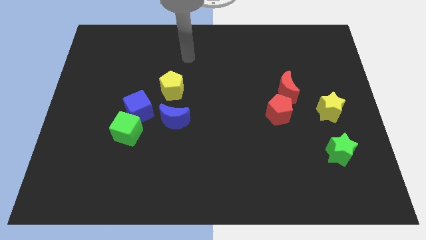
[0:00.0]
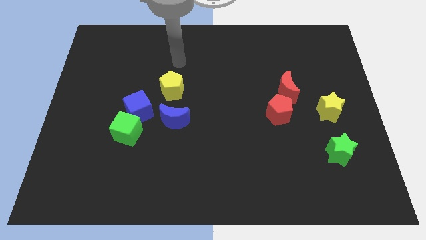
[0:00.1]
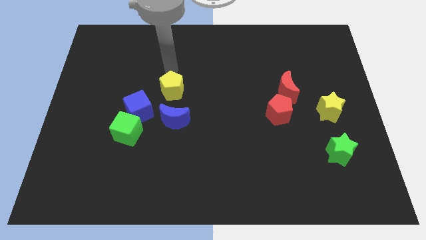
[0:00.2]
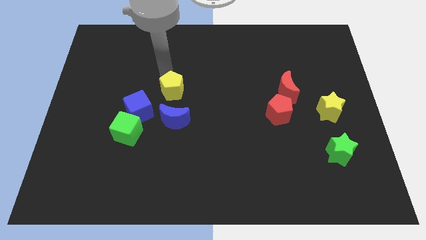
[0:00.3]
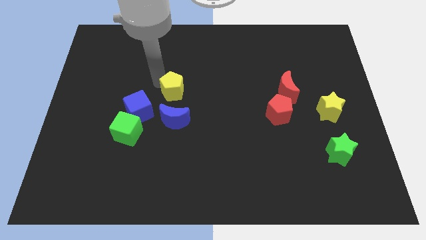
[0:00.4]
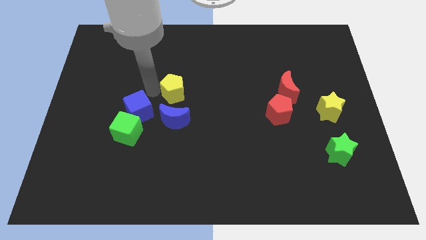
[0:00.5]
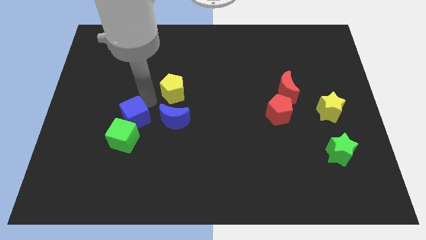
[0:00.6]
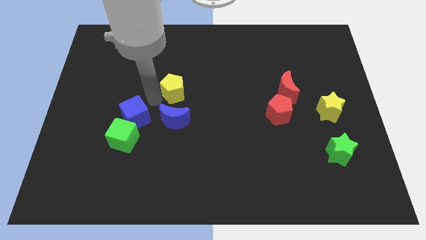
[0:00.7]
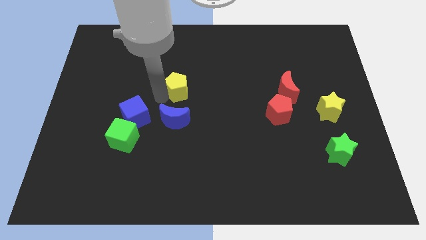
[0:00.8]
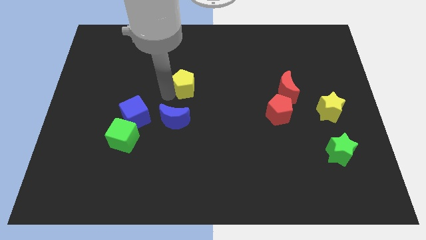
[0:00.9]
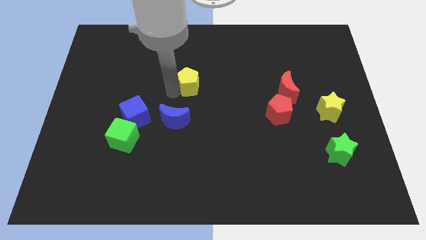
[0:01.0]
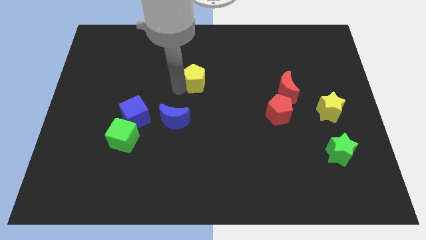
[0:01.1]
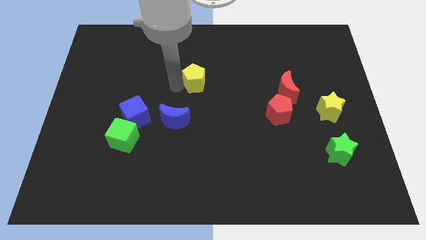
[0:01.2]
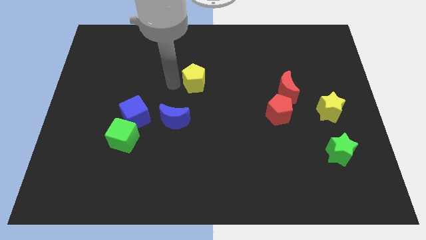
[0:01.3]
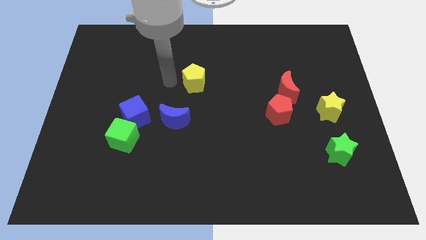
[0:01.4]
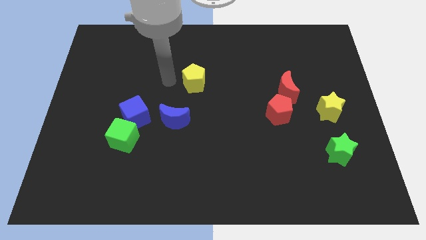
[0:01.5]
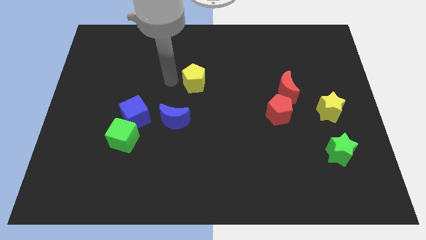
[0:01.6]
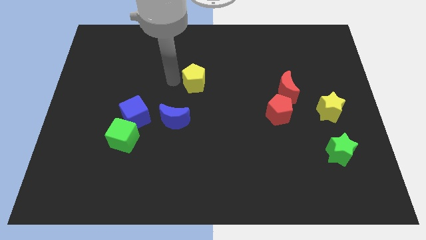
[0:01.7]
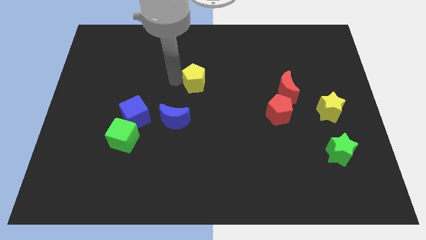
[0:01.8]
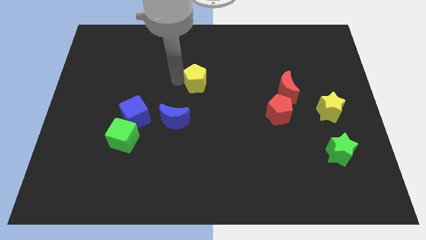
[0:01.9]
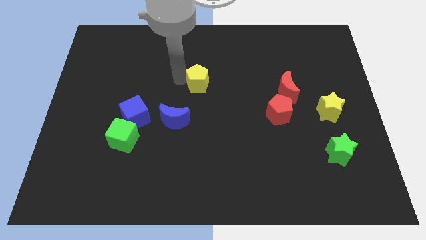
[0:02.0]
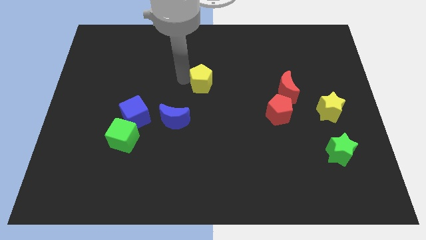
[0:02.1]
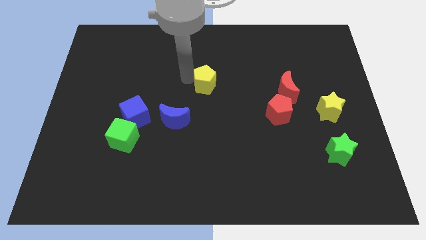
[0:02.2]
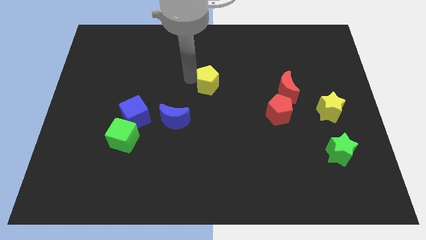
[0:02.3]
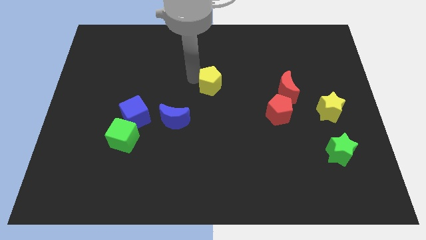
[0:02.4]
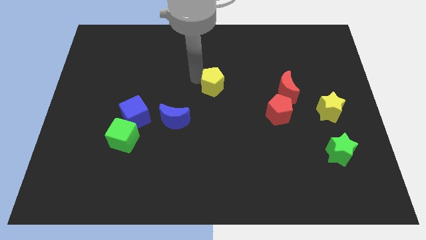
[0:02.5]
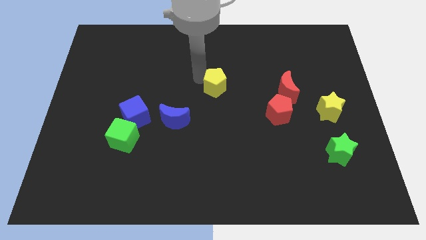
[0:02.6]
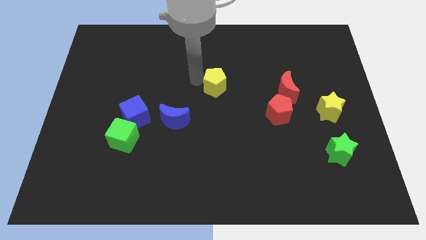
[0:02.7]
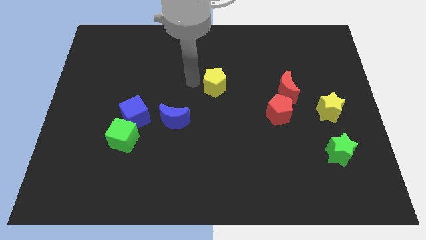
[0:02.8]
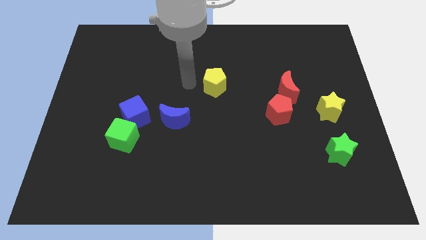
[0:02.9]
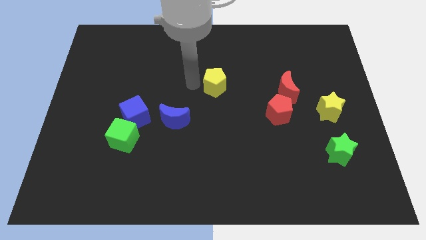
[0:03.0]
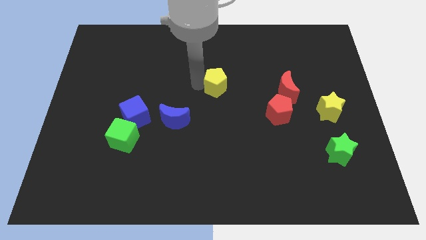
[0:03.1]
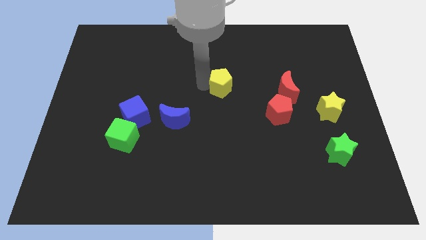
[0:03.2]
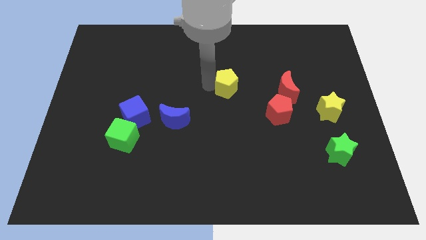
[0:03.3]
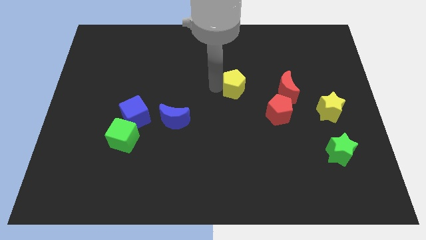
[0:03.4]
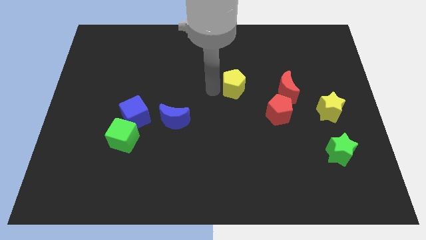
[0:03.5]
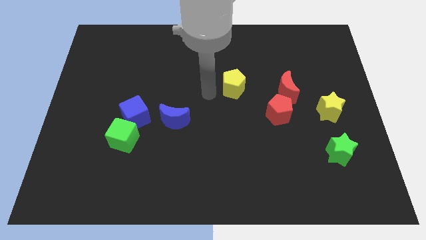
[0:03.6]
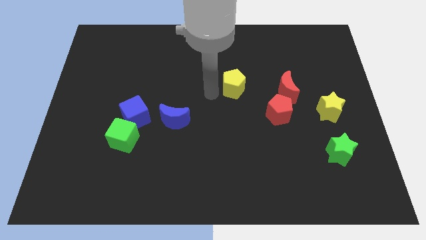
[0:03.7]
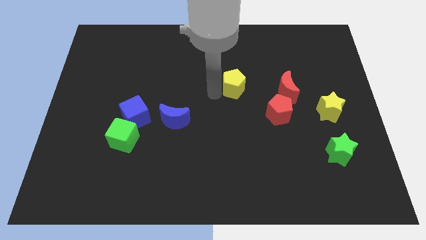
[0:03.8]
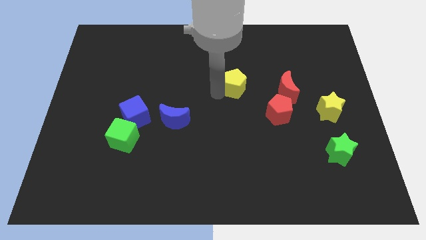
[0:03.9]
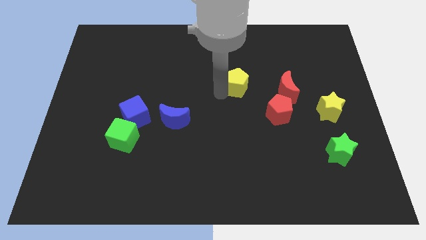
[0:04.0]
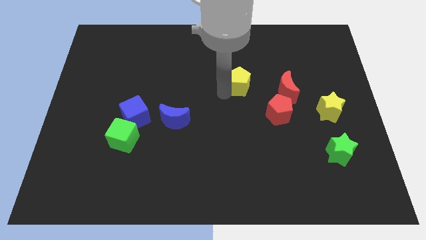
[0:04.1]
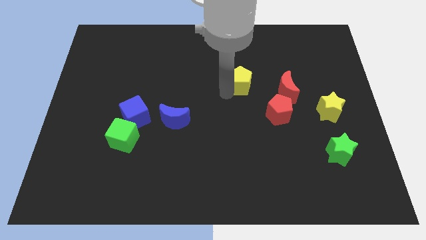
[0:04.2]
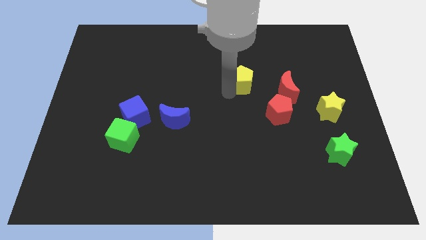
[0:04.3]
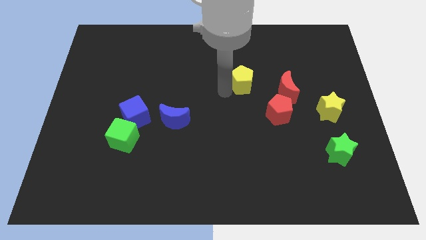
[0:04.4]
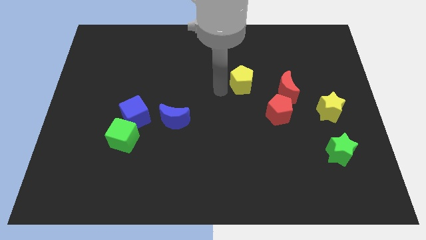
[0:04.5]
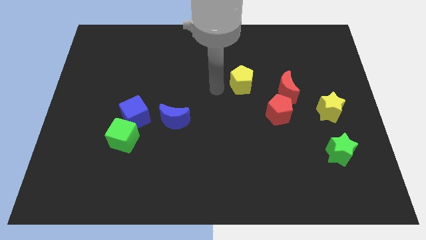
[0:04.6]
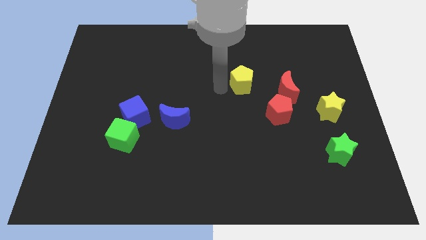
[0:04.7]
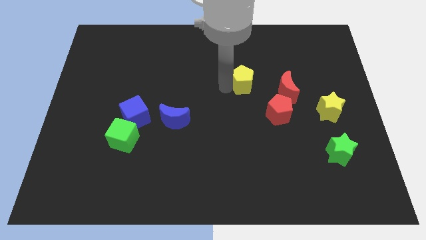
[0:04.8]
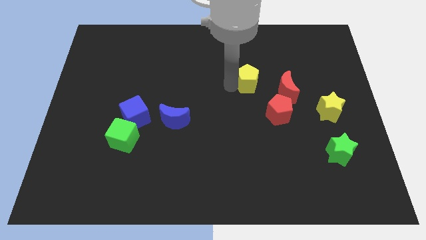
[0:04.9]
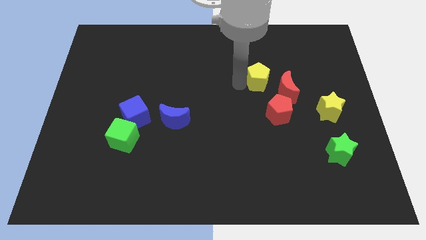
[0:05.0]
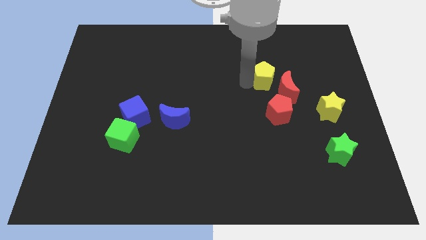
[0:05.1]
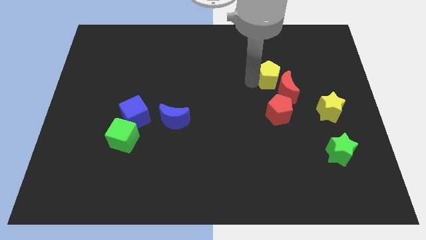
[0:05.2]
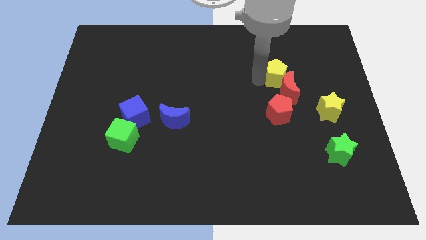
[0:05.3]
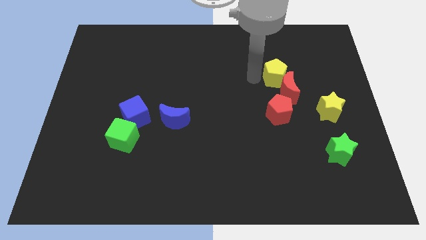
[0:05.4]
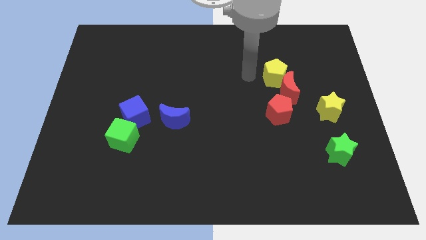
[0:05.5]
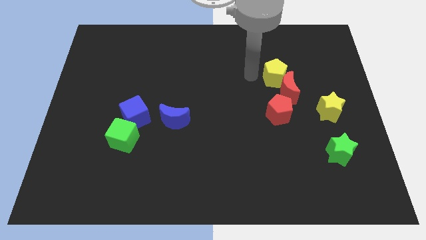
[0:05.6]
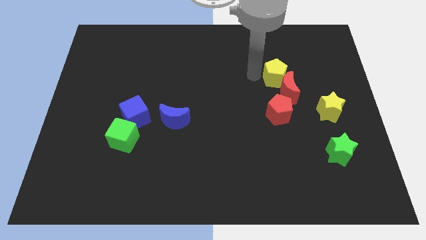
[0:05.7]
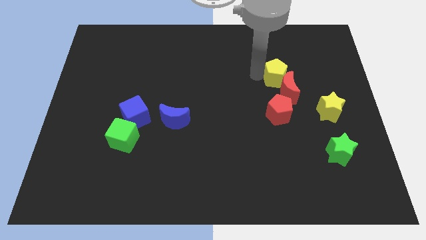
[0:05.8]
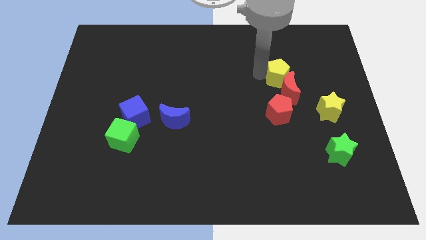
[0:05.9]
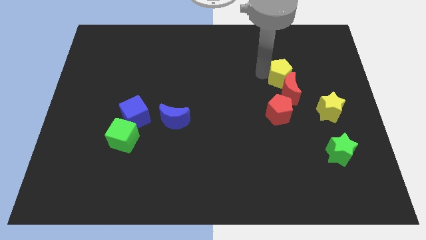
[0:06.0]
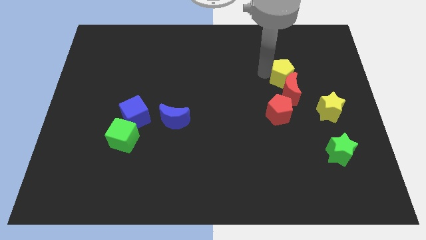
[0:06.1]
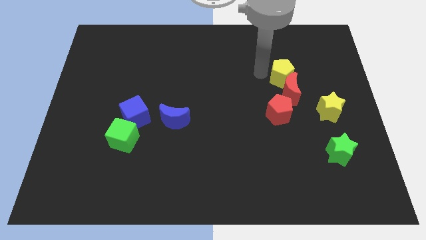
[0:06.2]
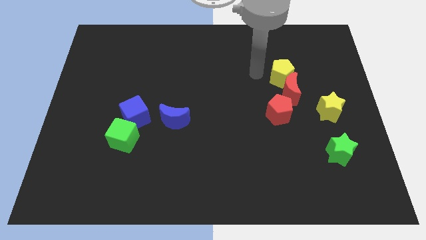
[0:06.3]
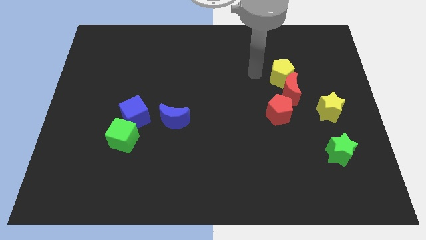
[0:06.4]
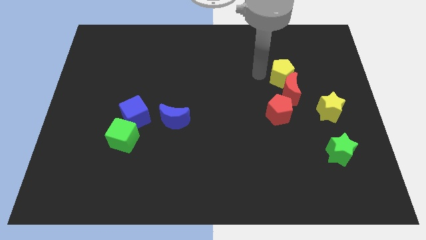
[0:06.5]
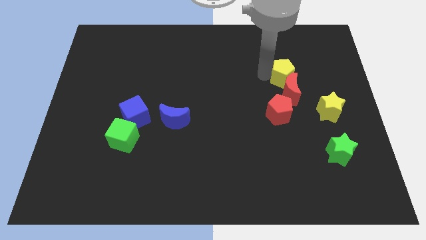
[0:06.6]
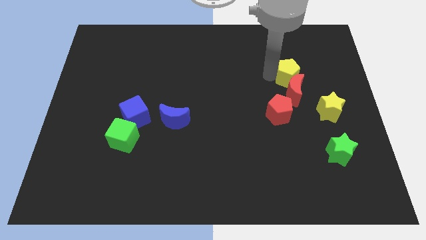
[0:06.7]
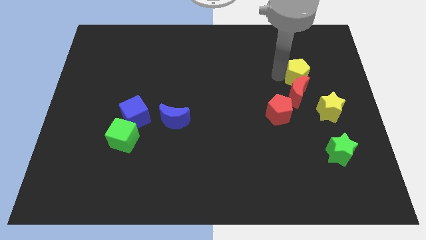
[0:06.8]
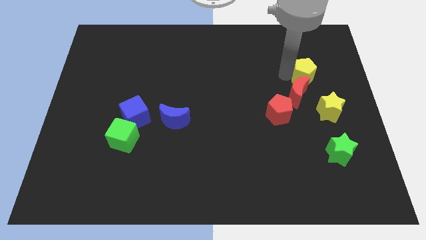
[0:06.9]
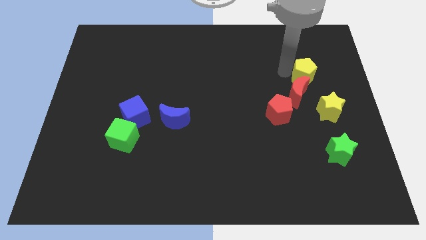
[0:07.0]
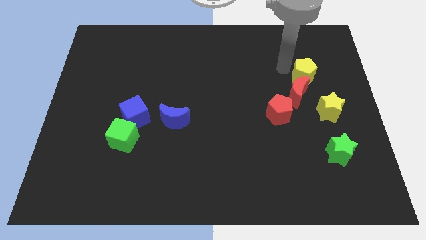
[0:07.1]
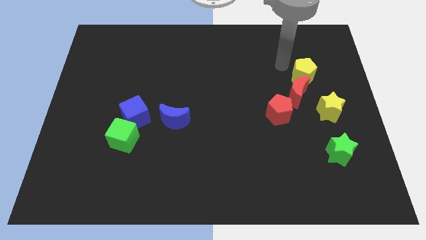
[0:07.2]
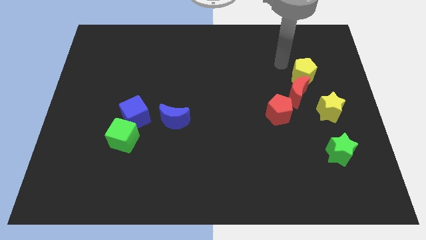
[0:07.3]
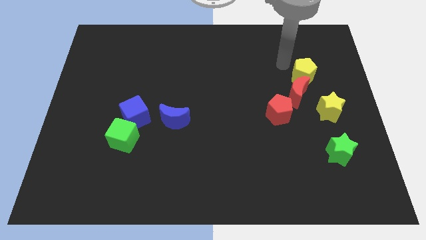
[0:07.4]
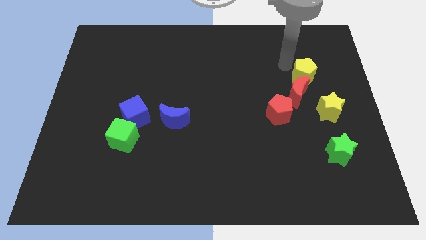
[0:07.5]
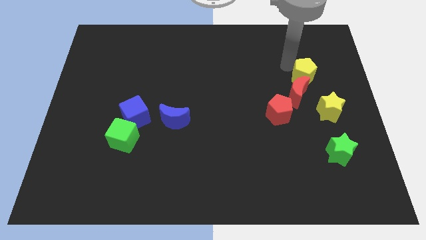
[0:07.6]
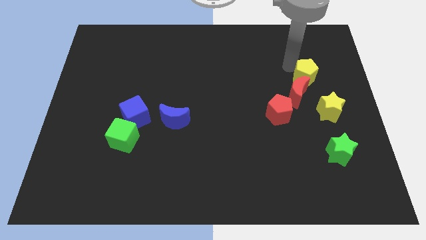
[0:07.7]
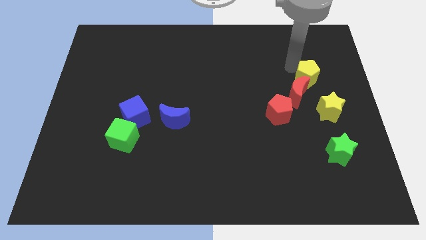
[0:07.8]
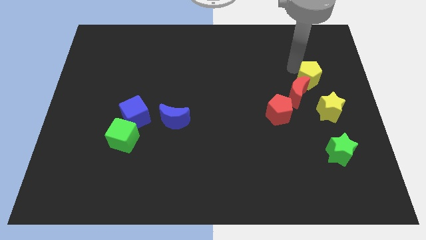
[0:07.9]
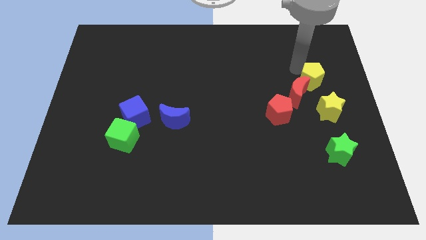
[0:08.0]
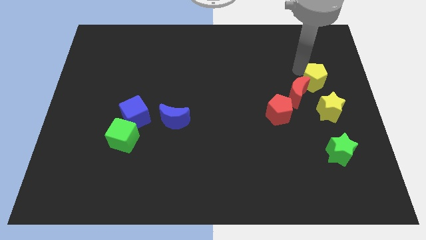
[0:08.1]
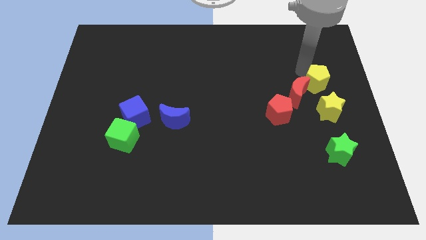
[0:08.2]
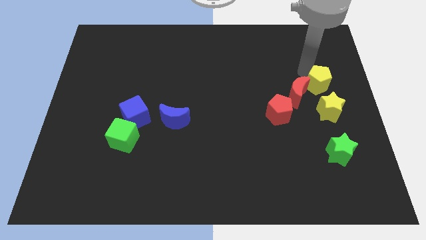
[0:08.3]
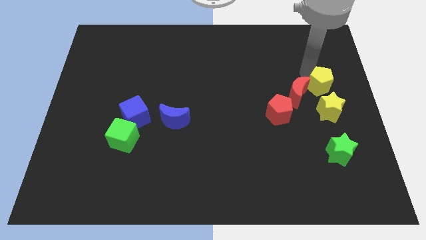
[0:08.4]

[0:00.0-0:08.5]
slide the yellow pentagon to the right side of the board

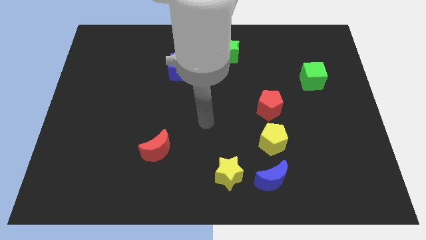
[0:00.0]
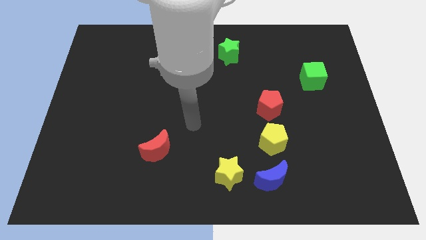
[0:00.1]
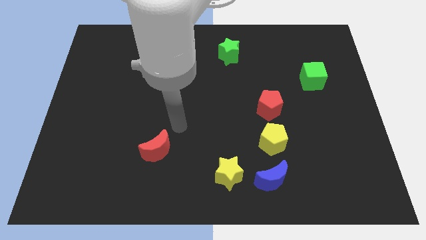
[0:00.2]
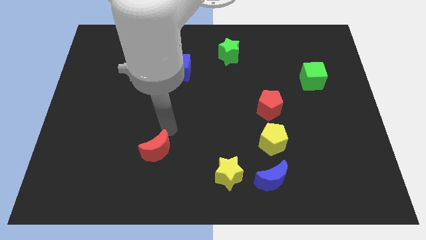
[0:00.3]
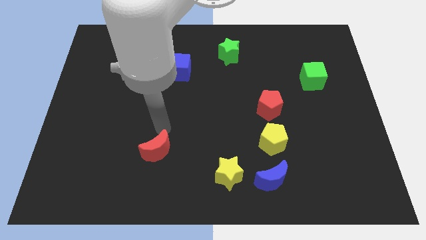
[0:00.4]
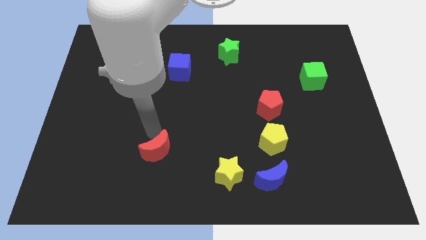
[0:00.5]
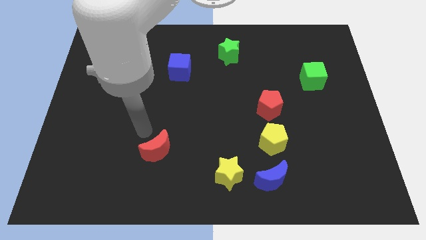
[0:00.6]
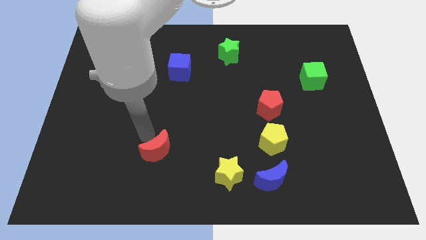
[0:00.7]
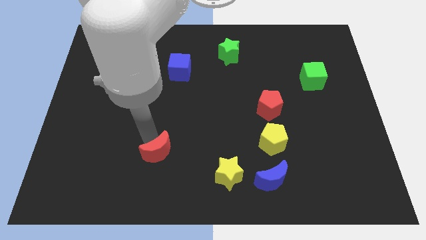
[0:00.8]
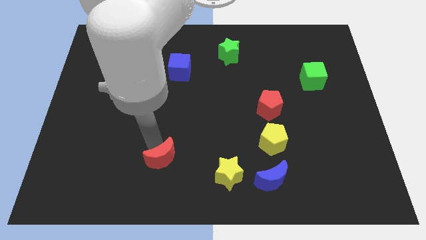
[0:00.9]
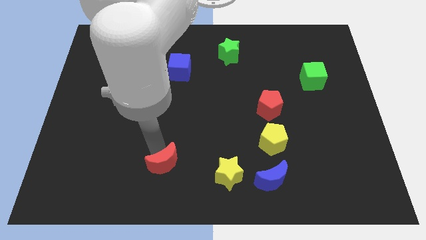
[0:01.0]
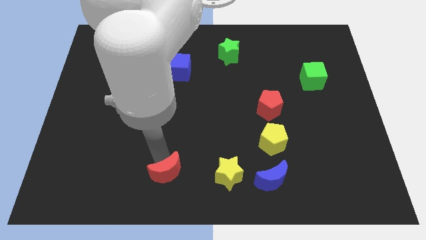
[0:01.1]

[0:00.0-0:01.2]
put the red moon to the bottom
